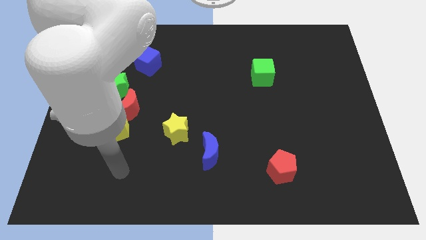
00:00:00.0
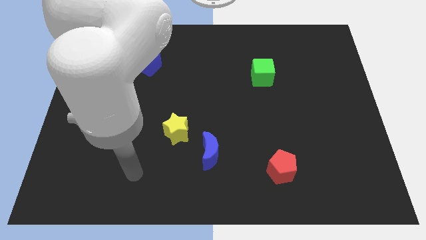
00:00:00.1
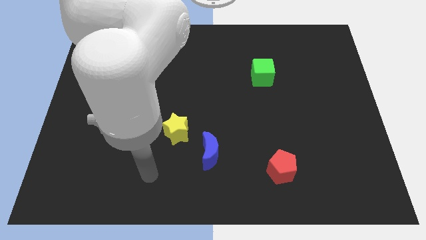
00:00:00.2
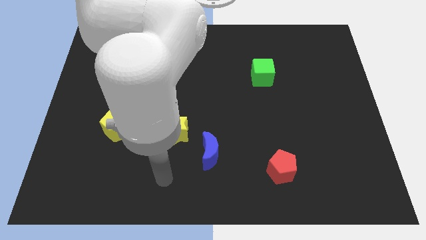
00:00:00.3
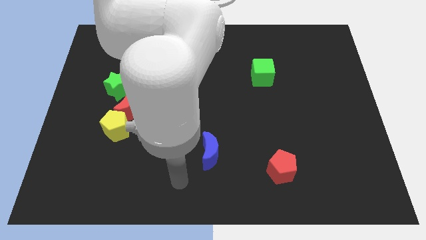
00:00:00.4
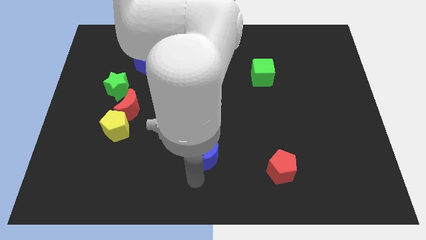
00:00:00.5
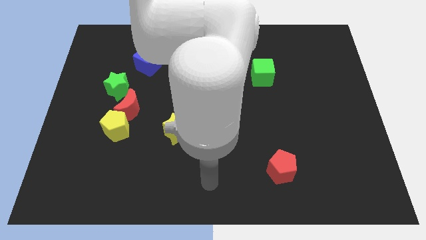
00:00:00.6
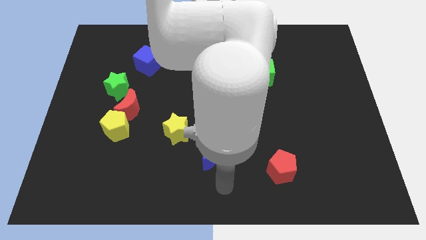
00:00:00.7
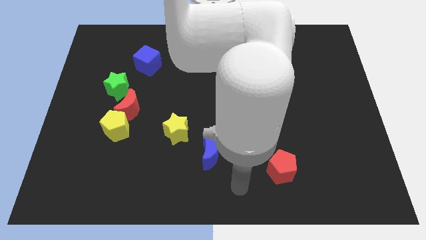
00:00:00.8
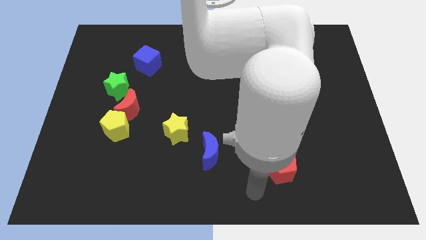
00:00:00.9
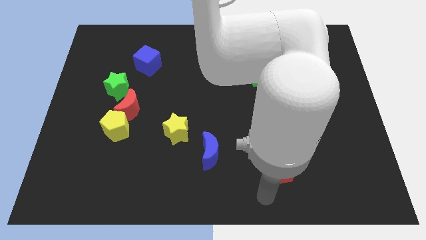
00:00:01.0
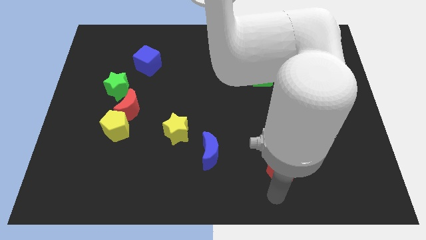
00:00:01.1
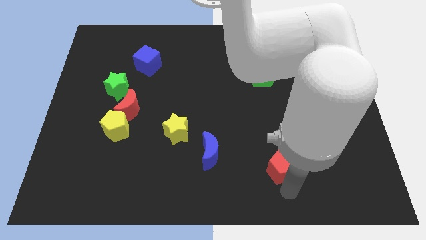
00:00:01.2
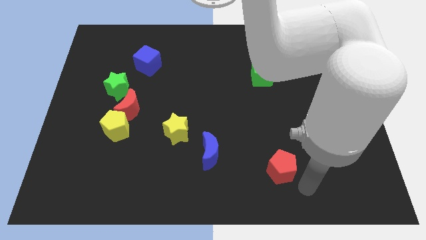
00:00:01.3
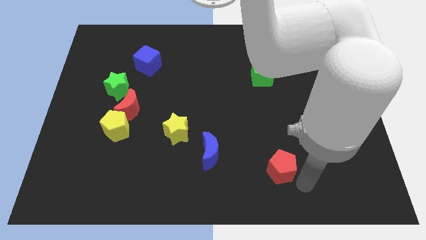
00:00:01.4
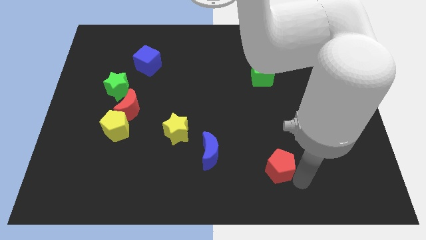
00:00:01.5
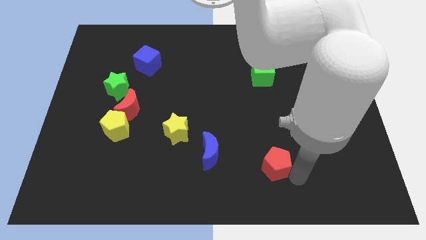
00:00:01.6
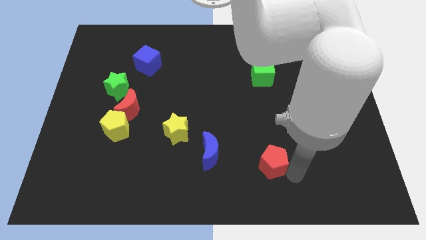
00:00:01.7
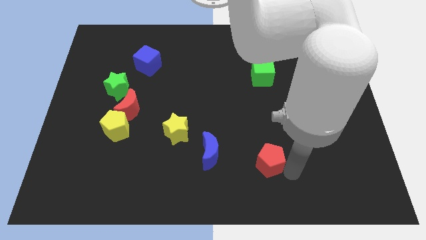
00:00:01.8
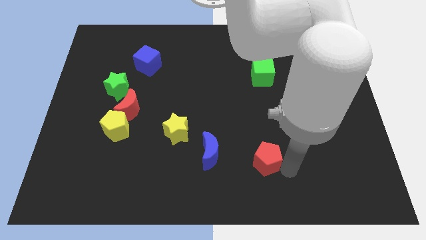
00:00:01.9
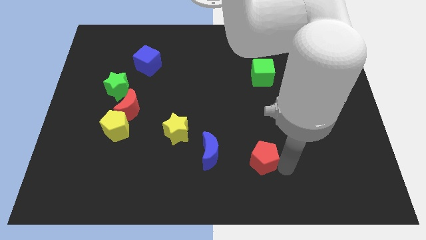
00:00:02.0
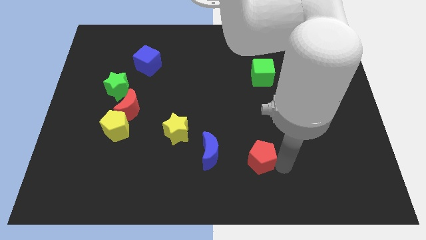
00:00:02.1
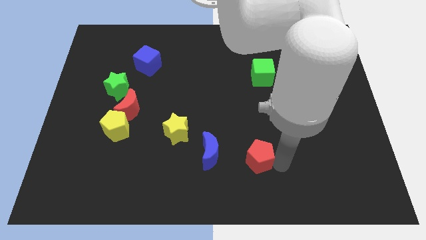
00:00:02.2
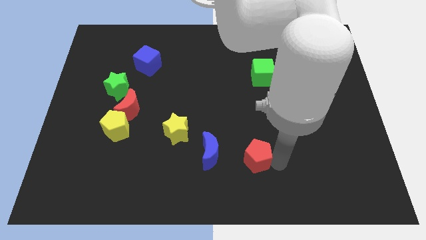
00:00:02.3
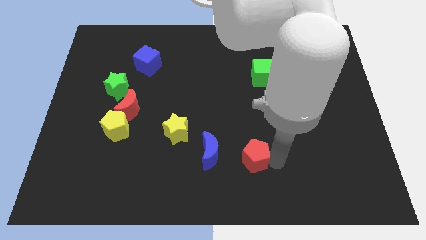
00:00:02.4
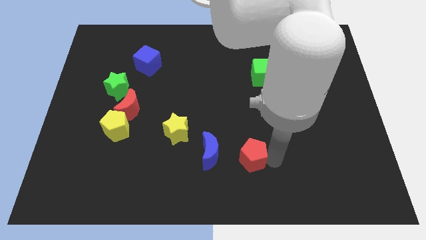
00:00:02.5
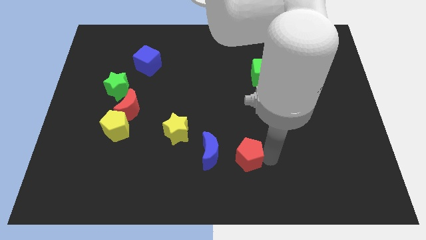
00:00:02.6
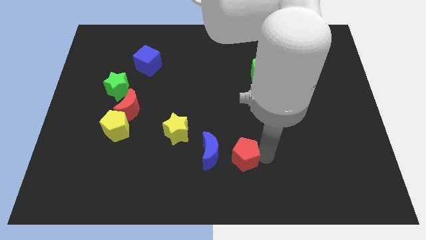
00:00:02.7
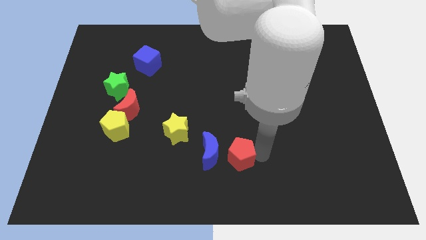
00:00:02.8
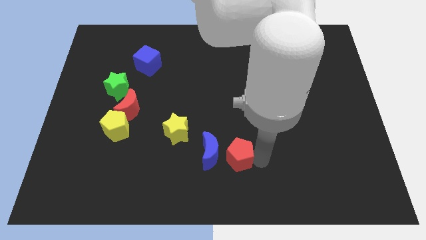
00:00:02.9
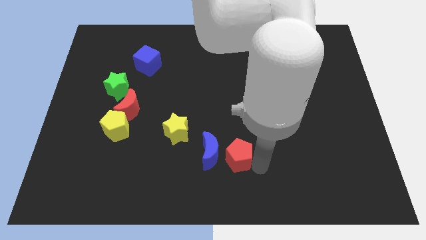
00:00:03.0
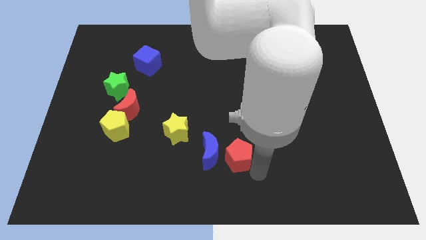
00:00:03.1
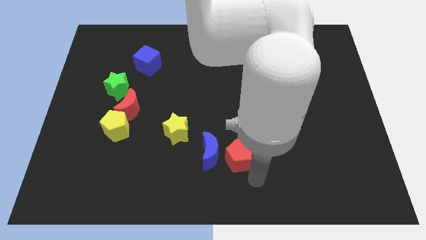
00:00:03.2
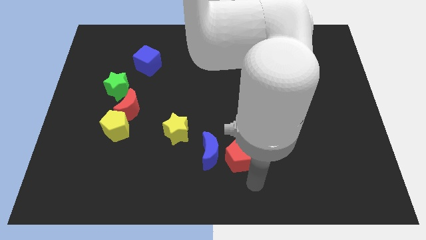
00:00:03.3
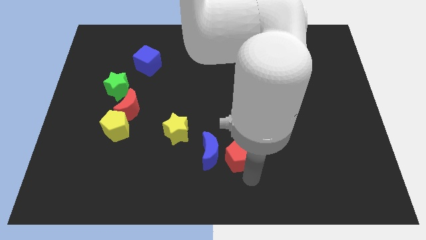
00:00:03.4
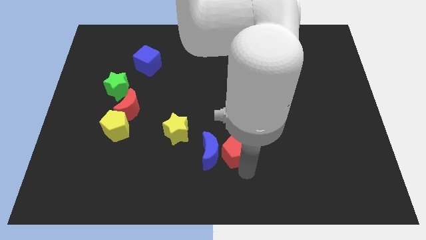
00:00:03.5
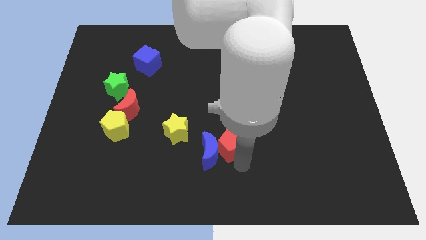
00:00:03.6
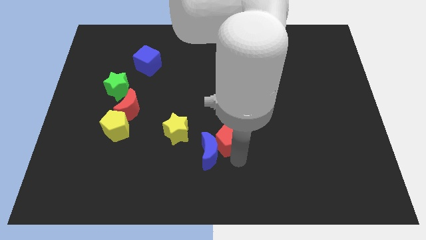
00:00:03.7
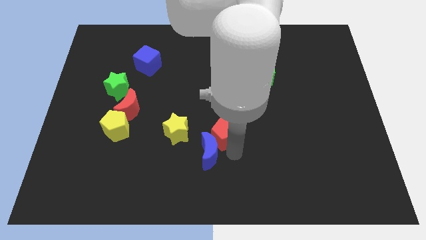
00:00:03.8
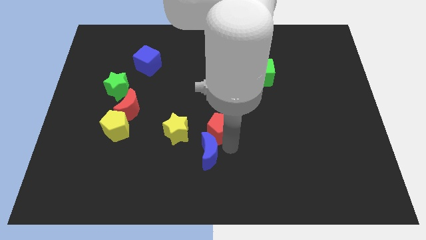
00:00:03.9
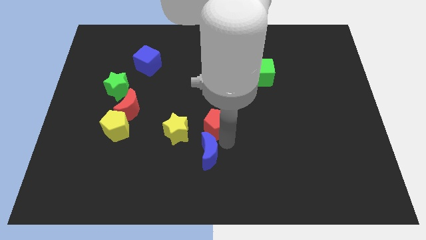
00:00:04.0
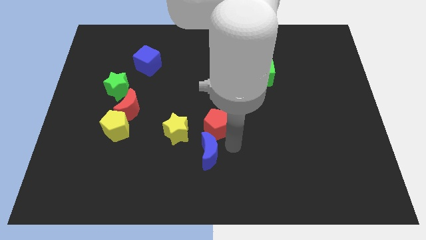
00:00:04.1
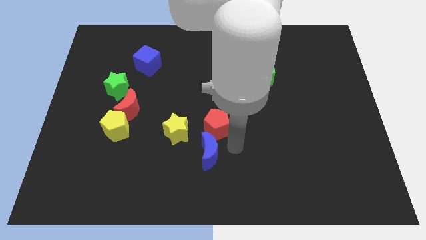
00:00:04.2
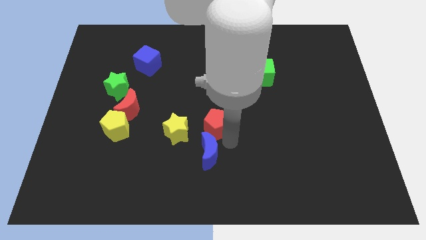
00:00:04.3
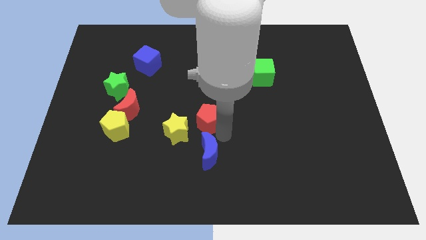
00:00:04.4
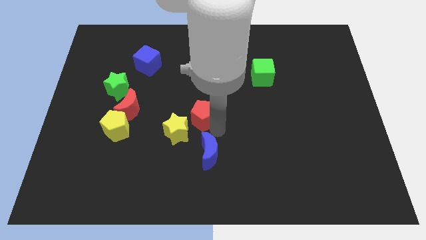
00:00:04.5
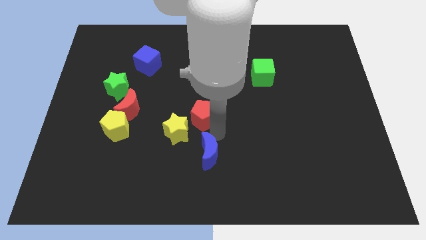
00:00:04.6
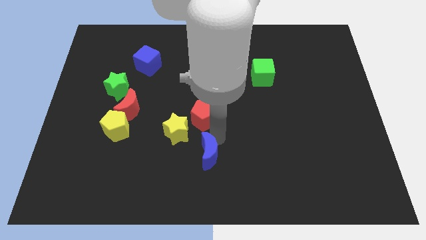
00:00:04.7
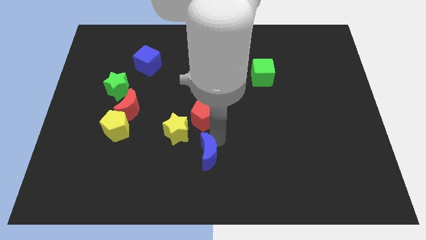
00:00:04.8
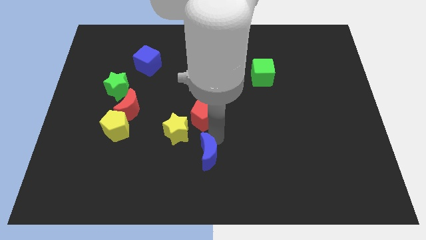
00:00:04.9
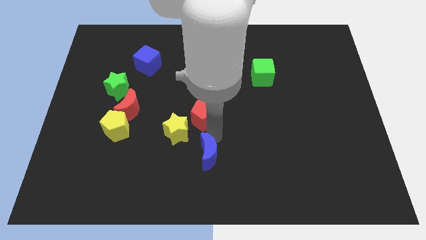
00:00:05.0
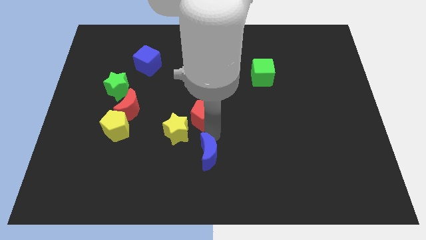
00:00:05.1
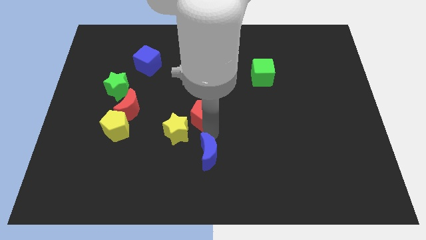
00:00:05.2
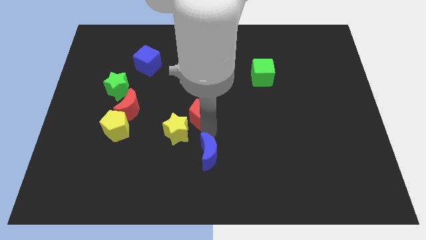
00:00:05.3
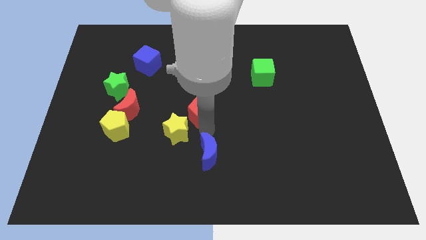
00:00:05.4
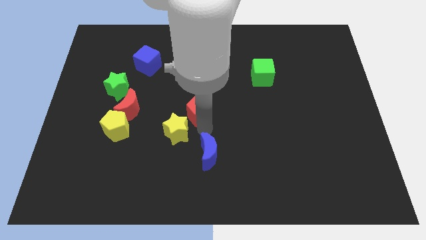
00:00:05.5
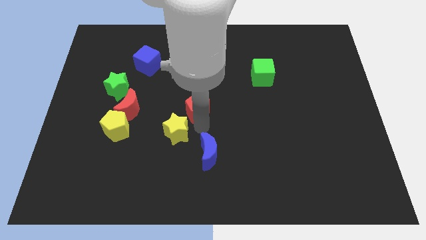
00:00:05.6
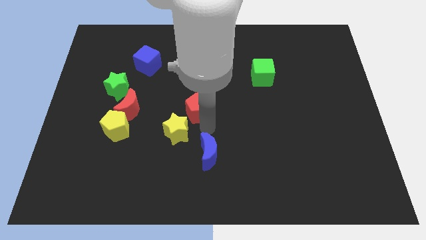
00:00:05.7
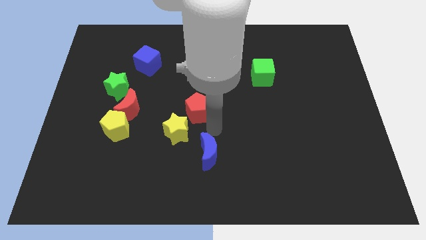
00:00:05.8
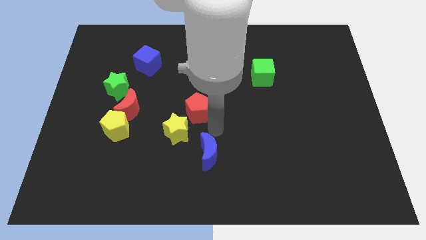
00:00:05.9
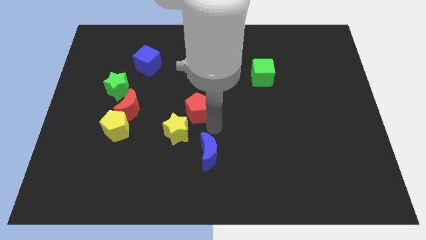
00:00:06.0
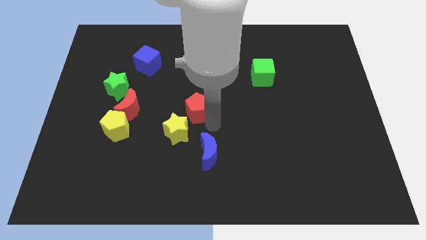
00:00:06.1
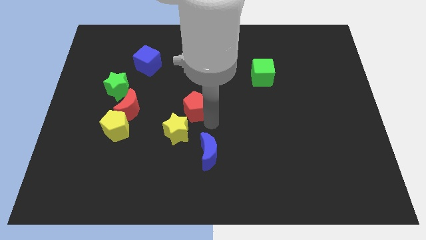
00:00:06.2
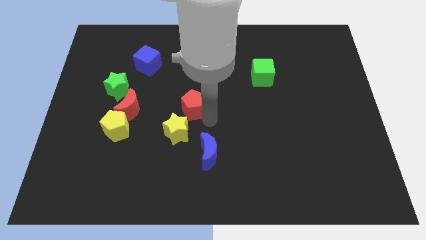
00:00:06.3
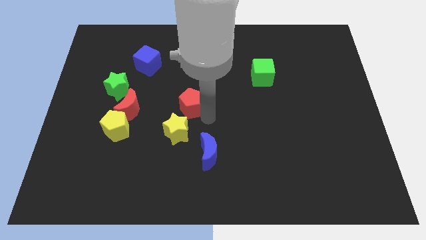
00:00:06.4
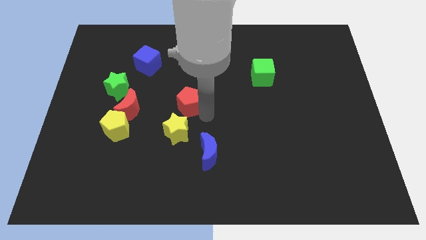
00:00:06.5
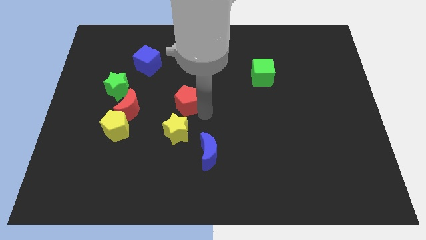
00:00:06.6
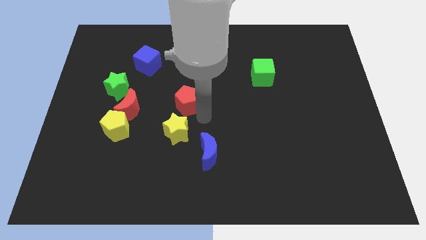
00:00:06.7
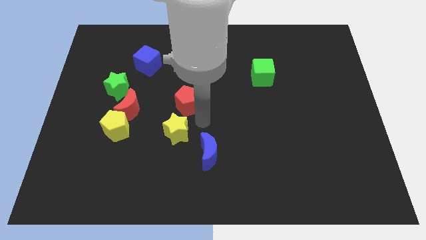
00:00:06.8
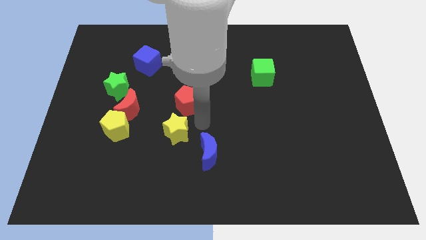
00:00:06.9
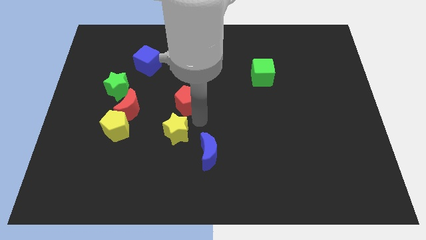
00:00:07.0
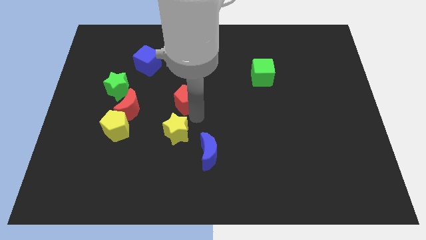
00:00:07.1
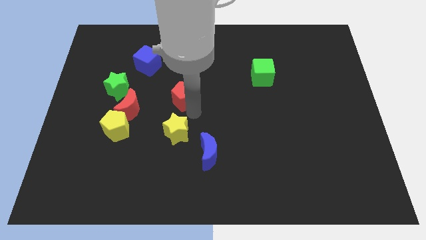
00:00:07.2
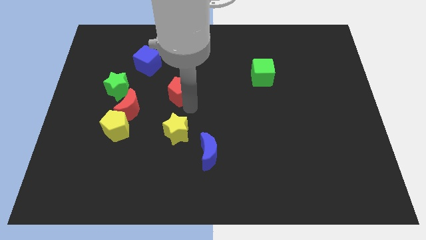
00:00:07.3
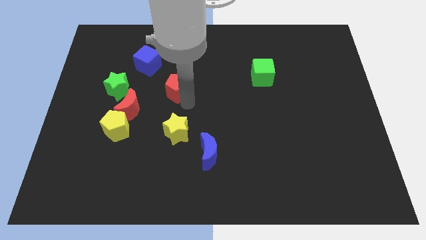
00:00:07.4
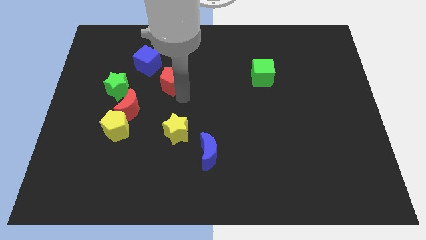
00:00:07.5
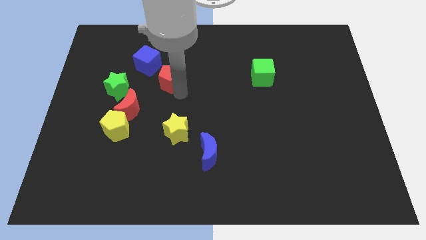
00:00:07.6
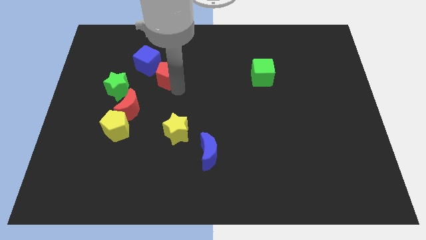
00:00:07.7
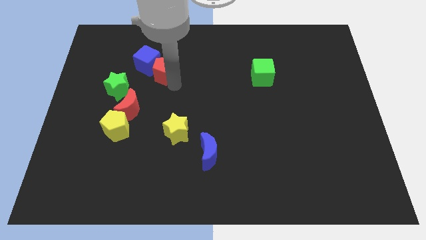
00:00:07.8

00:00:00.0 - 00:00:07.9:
push the red pentagon next to the blue cube
